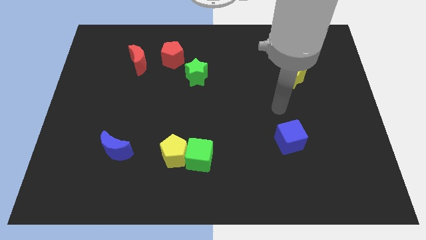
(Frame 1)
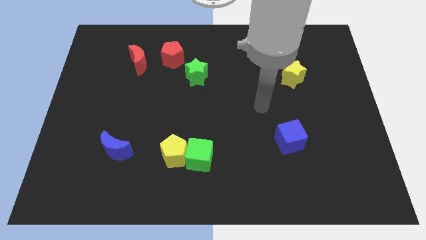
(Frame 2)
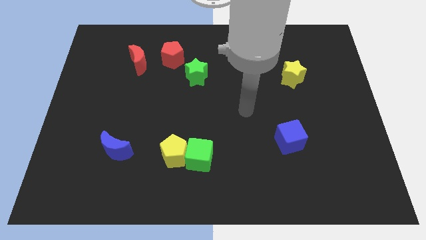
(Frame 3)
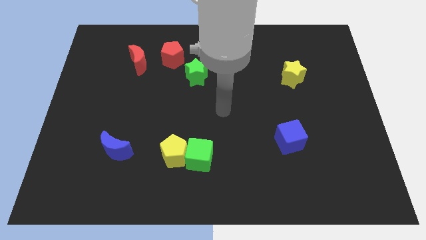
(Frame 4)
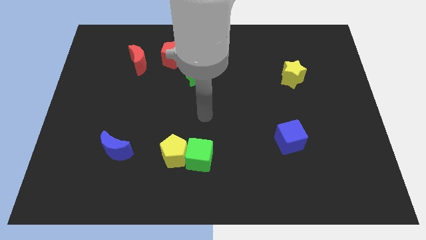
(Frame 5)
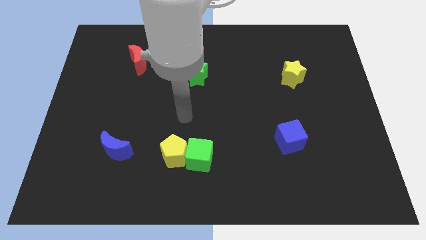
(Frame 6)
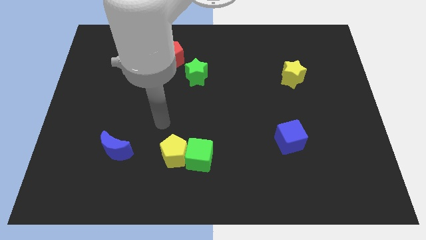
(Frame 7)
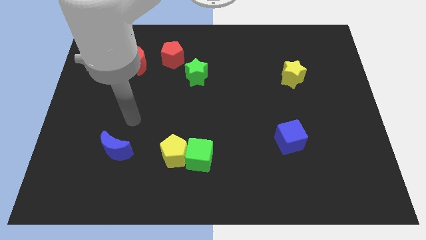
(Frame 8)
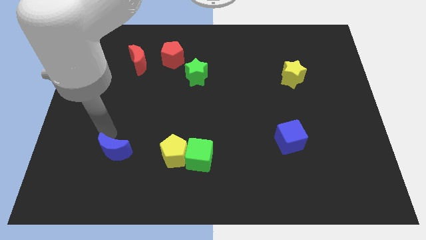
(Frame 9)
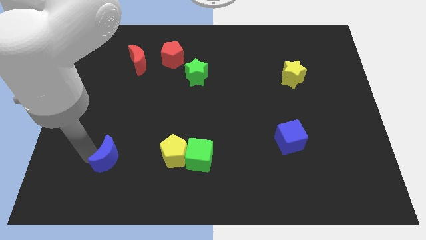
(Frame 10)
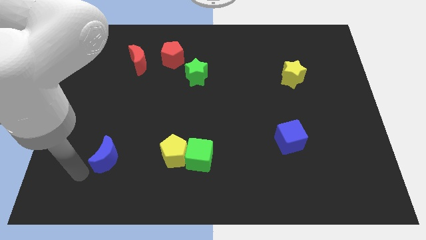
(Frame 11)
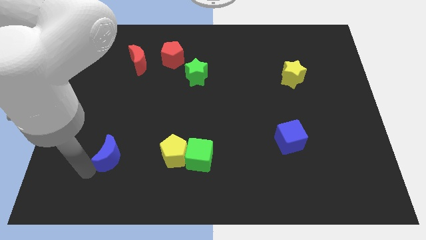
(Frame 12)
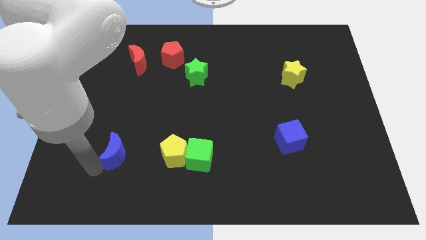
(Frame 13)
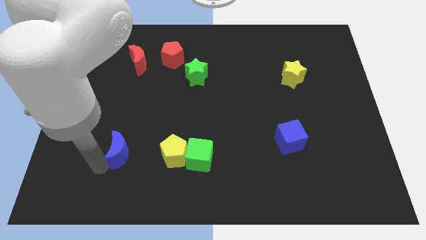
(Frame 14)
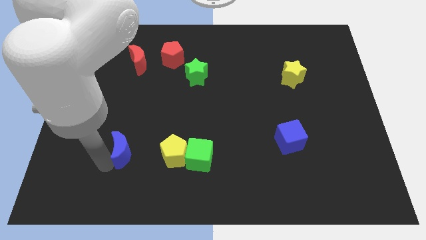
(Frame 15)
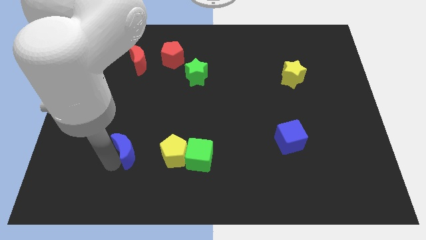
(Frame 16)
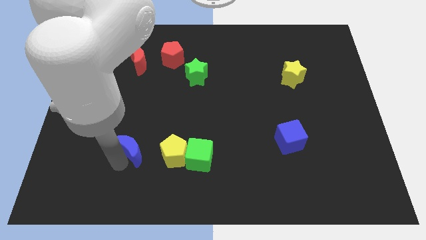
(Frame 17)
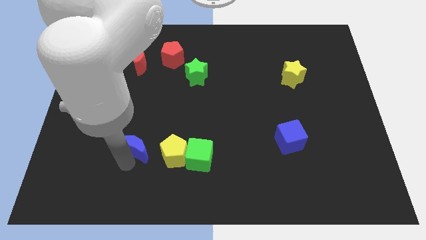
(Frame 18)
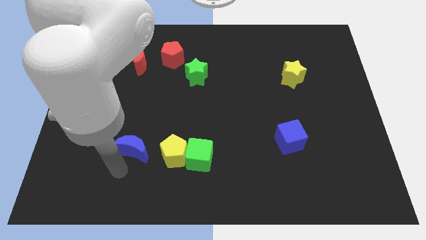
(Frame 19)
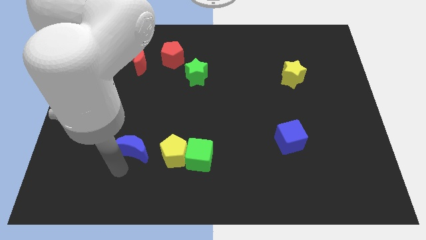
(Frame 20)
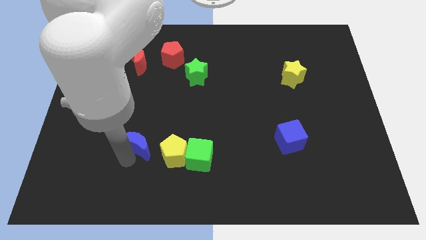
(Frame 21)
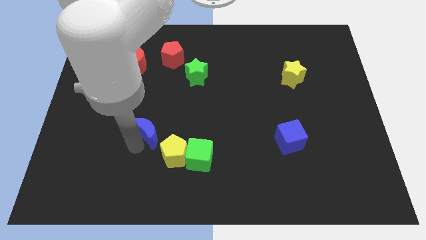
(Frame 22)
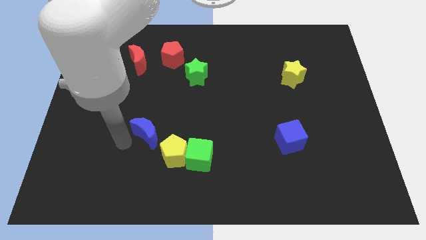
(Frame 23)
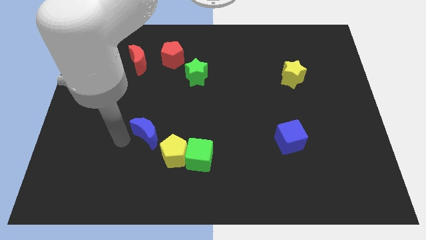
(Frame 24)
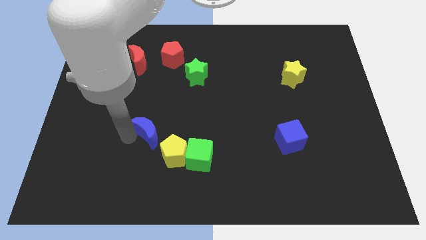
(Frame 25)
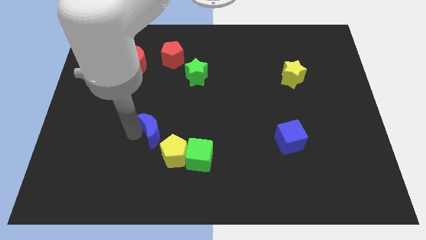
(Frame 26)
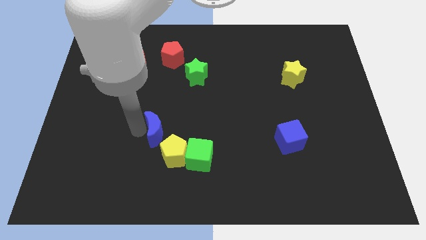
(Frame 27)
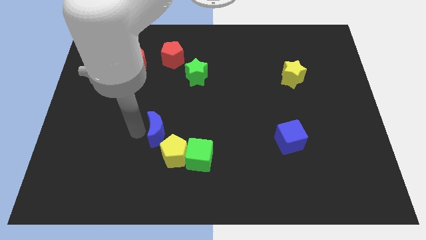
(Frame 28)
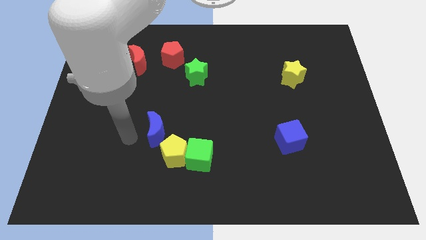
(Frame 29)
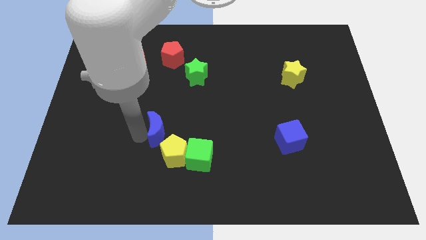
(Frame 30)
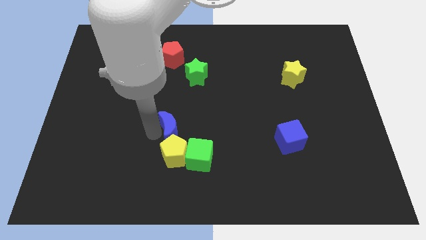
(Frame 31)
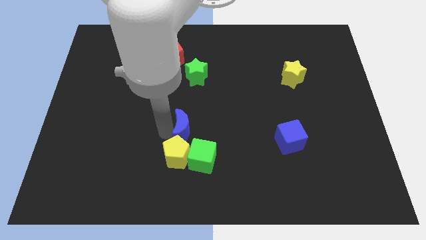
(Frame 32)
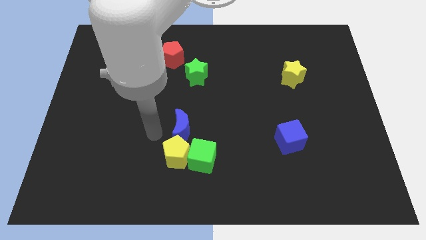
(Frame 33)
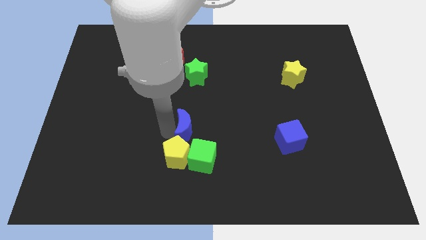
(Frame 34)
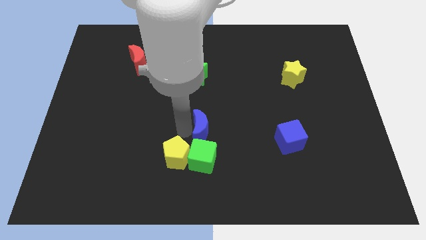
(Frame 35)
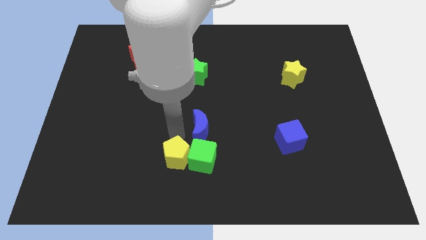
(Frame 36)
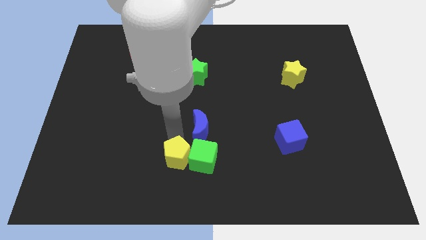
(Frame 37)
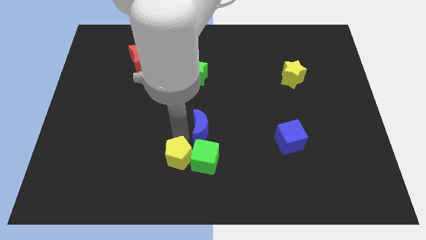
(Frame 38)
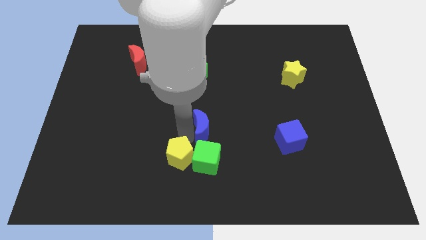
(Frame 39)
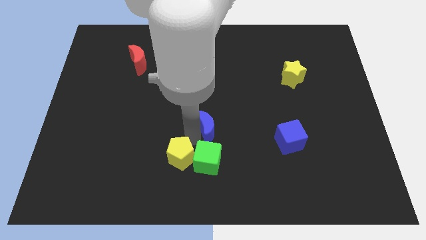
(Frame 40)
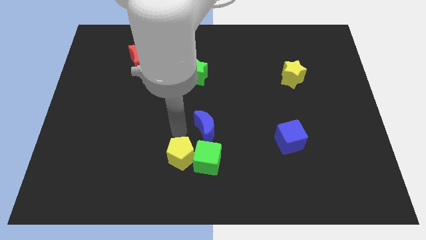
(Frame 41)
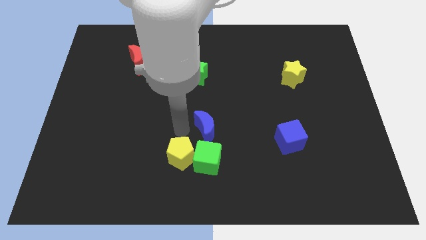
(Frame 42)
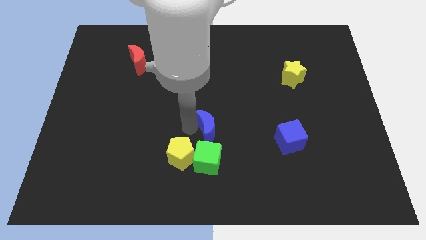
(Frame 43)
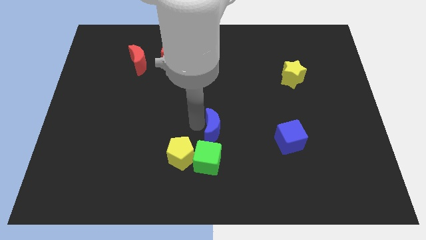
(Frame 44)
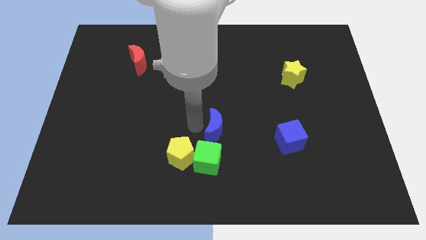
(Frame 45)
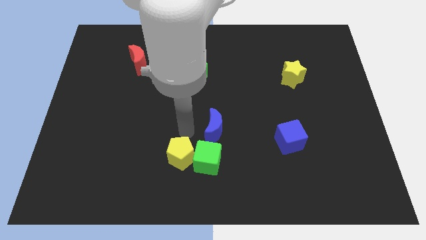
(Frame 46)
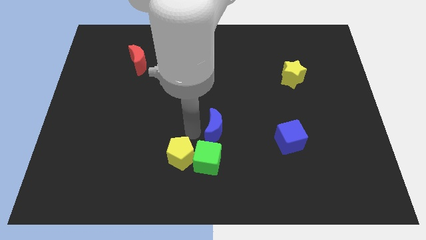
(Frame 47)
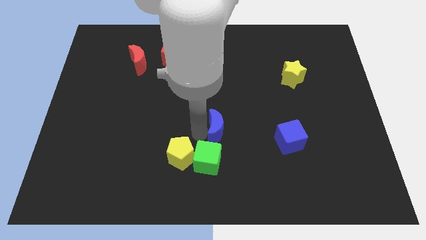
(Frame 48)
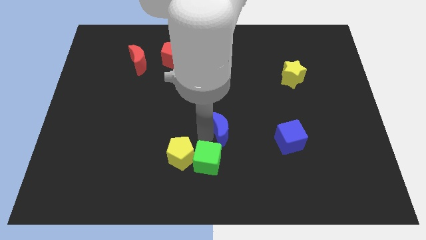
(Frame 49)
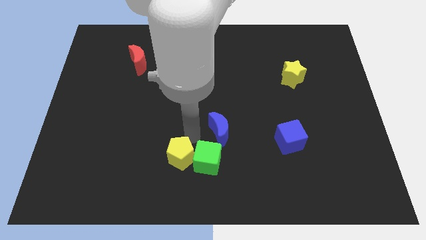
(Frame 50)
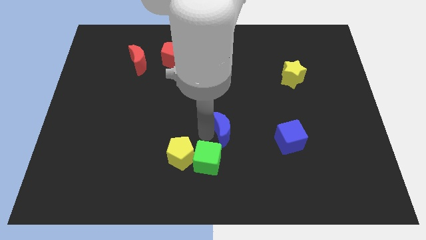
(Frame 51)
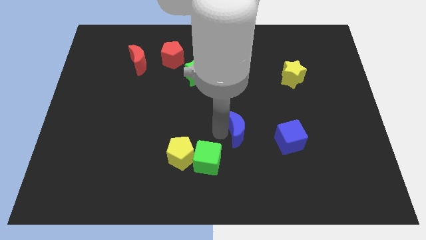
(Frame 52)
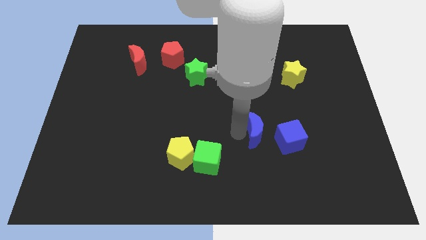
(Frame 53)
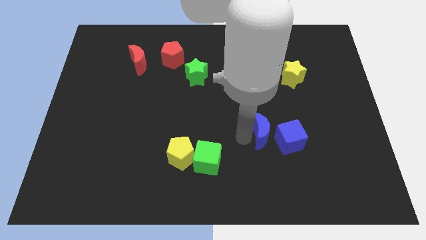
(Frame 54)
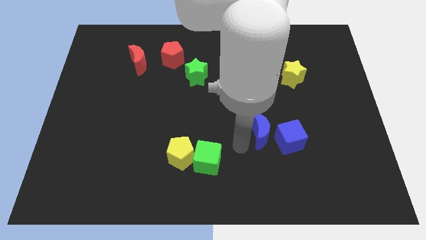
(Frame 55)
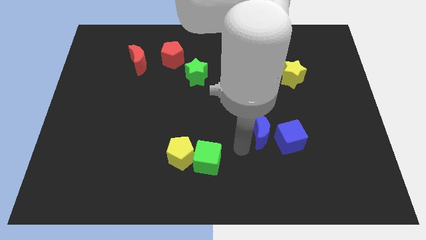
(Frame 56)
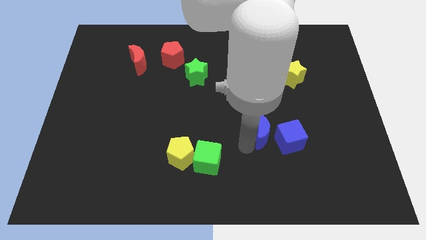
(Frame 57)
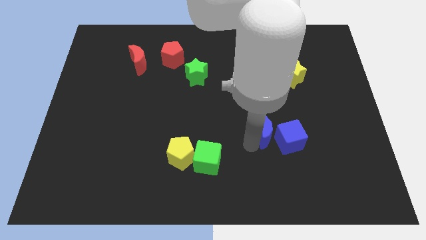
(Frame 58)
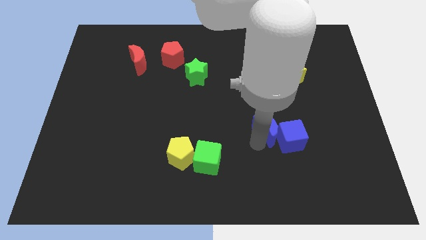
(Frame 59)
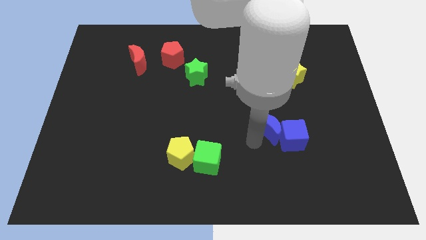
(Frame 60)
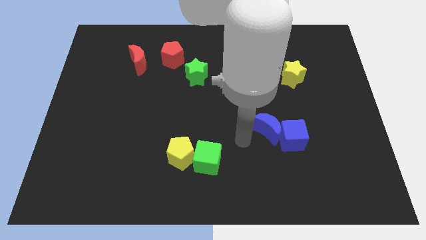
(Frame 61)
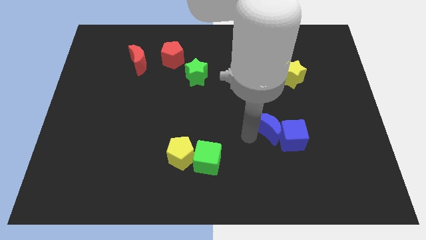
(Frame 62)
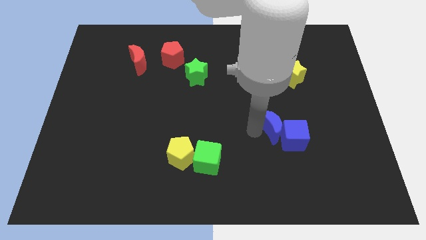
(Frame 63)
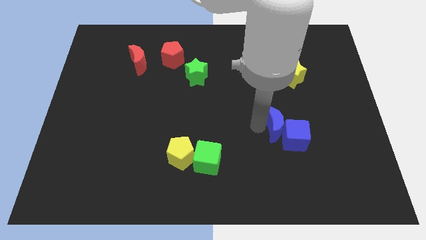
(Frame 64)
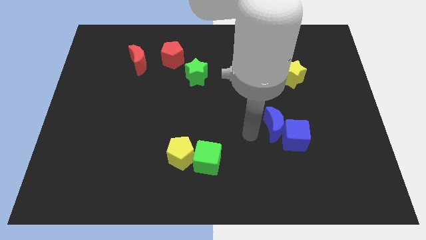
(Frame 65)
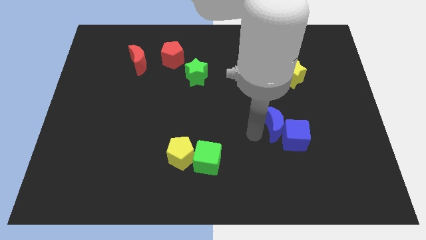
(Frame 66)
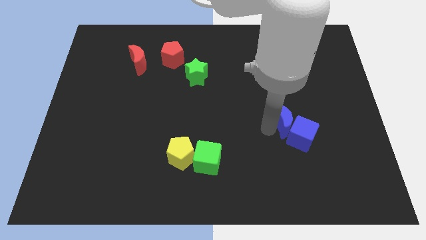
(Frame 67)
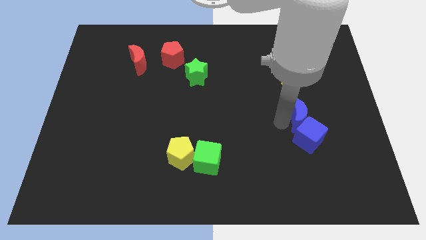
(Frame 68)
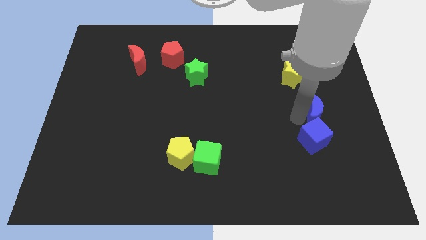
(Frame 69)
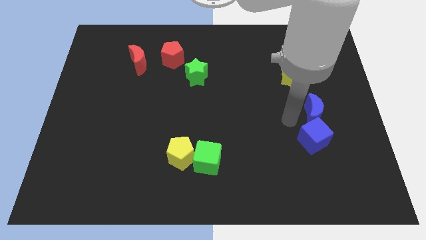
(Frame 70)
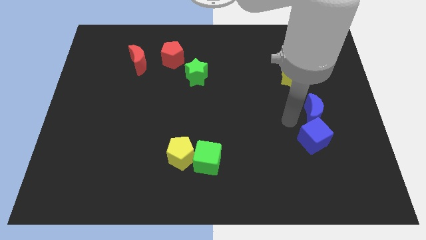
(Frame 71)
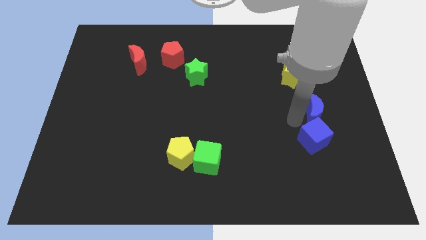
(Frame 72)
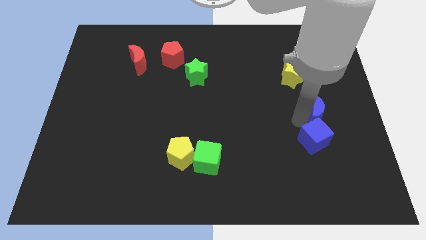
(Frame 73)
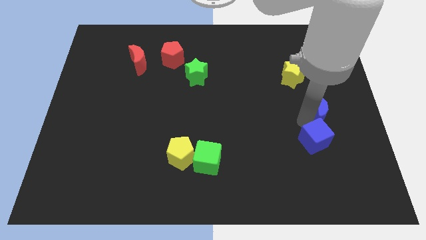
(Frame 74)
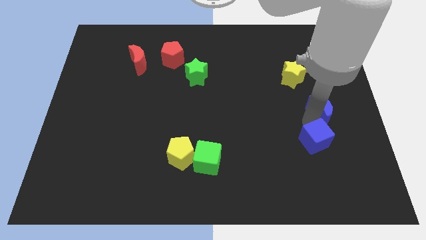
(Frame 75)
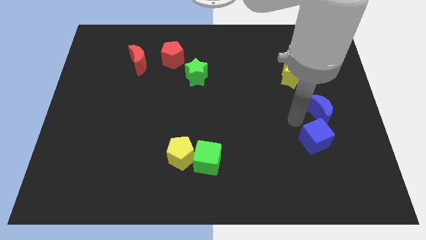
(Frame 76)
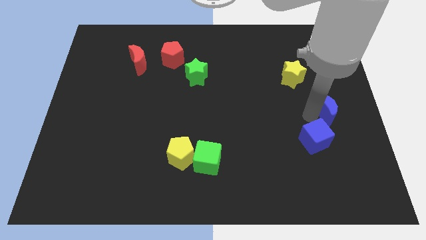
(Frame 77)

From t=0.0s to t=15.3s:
put the blue moon to the right side
